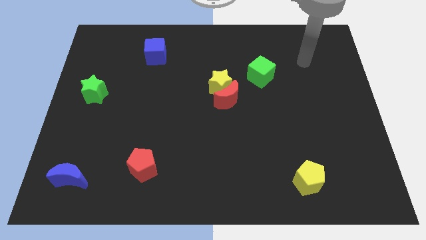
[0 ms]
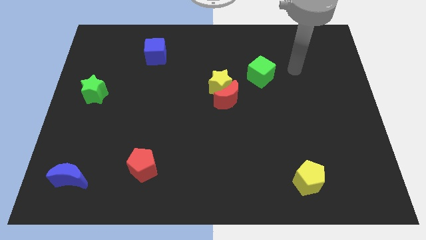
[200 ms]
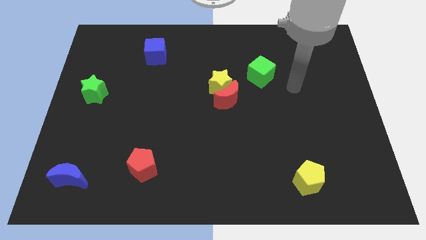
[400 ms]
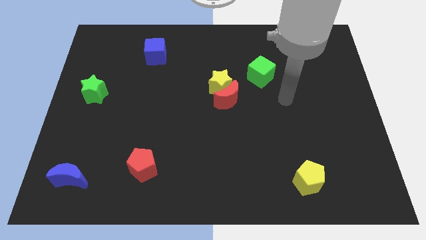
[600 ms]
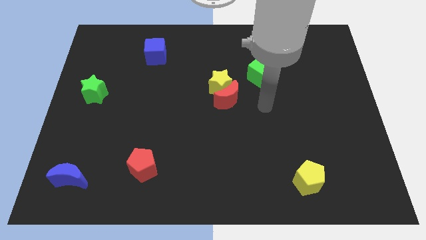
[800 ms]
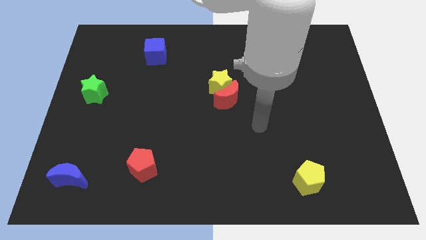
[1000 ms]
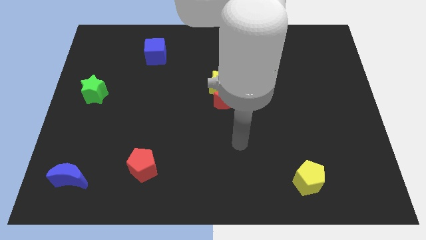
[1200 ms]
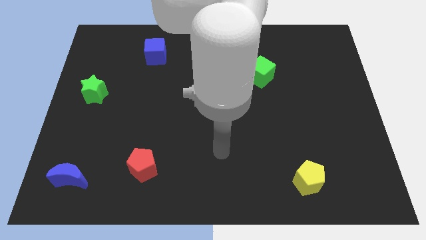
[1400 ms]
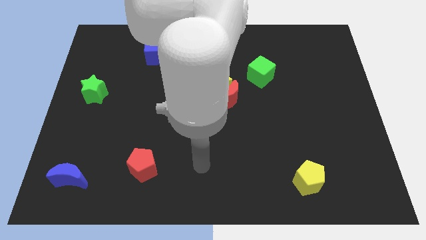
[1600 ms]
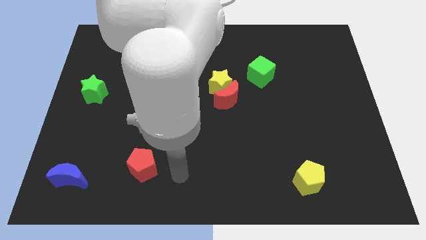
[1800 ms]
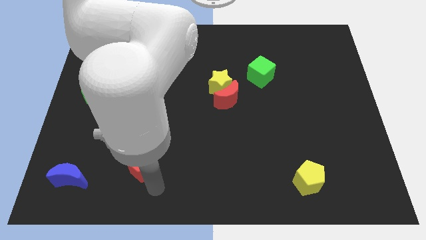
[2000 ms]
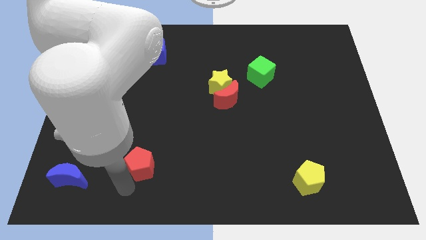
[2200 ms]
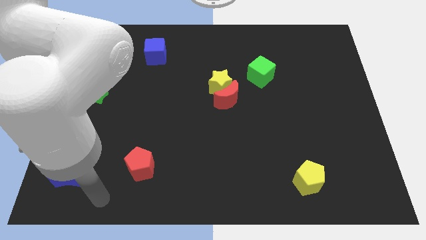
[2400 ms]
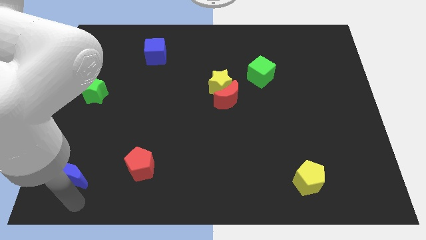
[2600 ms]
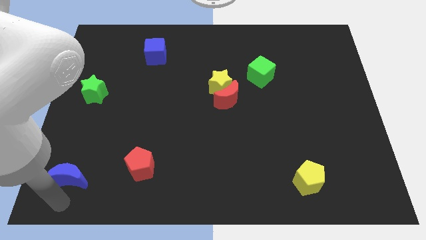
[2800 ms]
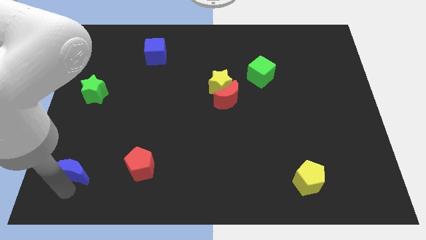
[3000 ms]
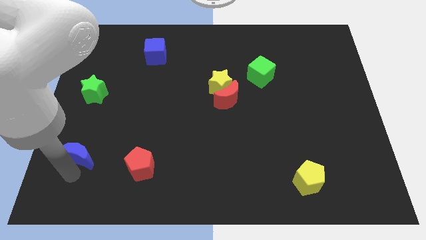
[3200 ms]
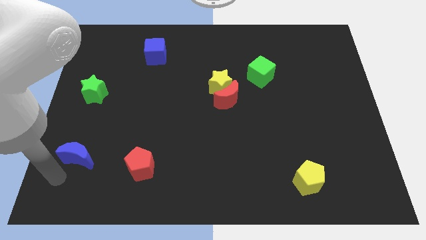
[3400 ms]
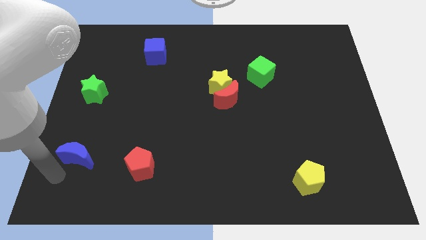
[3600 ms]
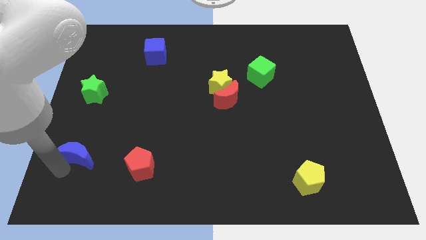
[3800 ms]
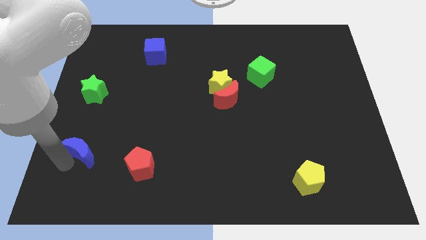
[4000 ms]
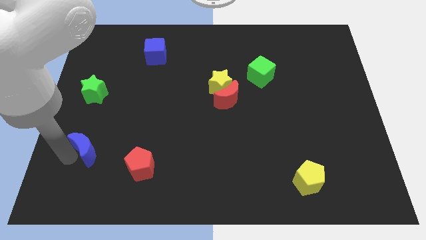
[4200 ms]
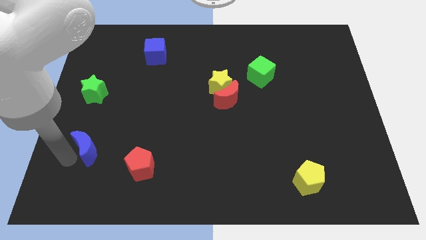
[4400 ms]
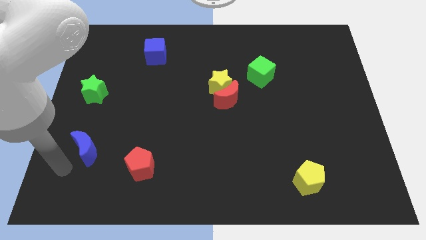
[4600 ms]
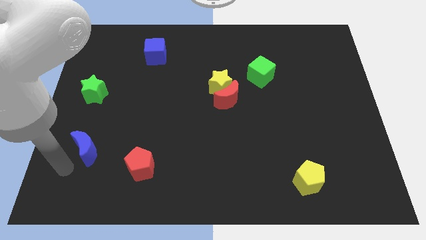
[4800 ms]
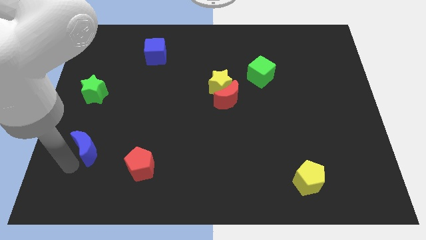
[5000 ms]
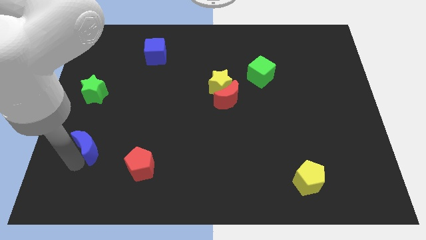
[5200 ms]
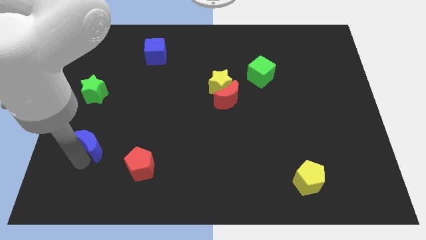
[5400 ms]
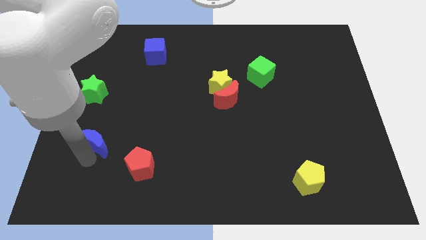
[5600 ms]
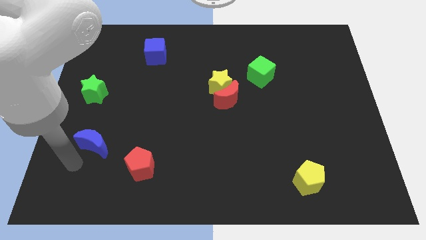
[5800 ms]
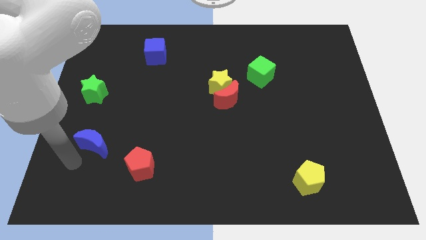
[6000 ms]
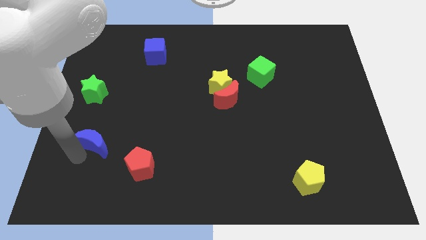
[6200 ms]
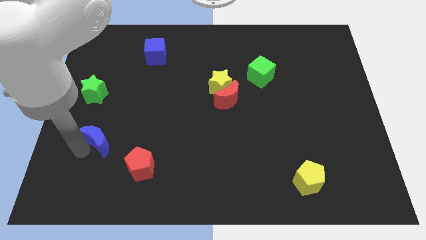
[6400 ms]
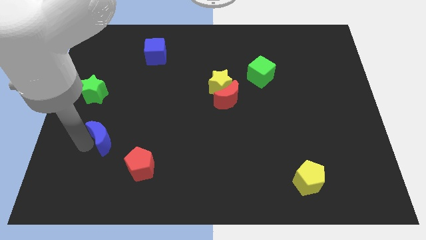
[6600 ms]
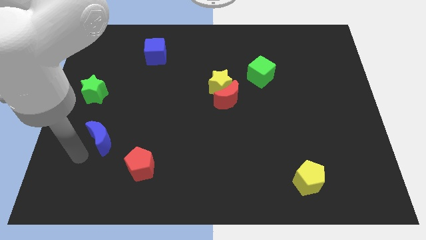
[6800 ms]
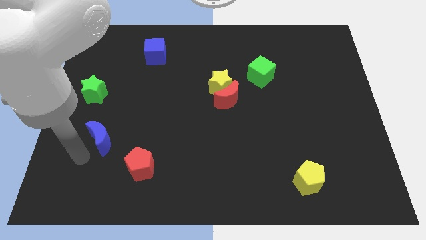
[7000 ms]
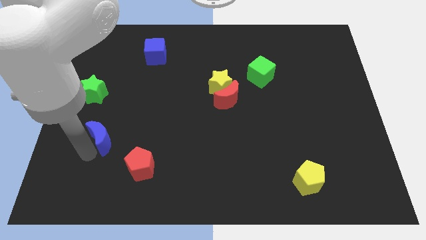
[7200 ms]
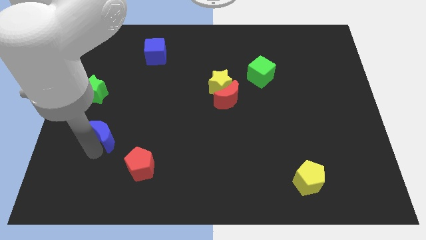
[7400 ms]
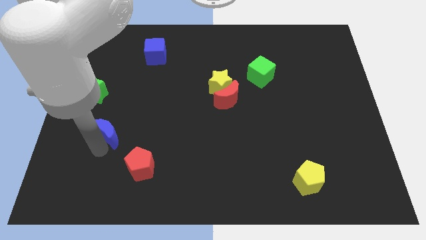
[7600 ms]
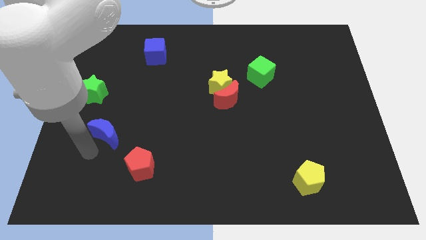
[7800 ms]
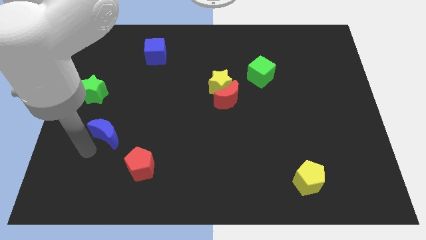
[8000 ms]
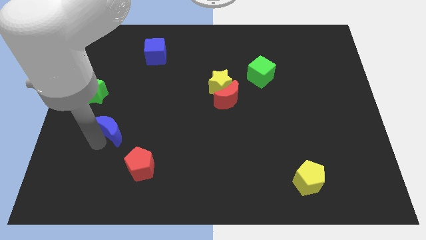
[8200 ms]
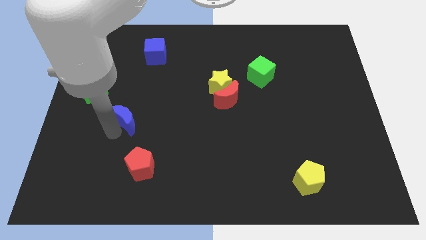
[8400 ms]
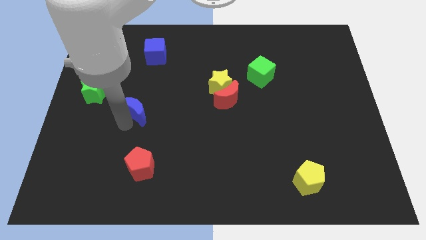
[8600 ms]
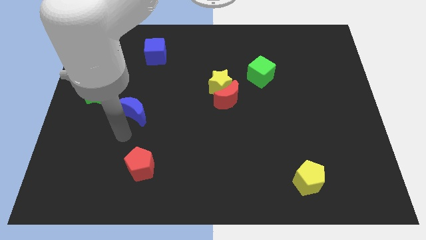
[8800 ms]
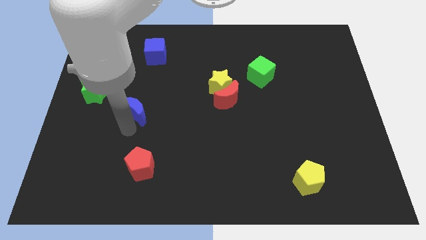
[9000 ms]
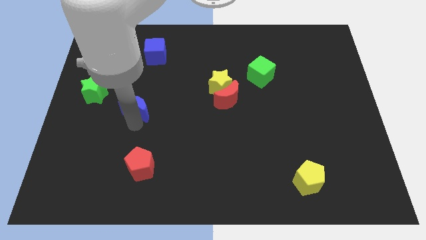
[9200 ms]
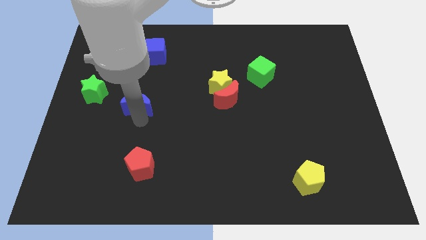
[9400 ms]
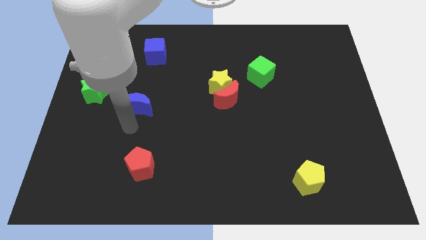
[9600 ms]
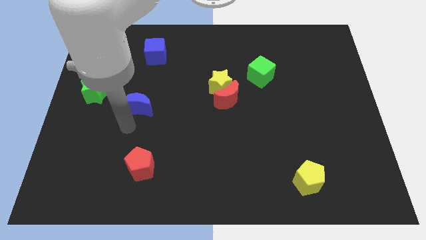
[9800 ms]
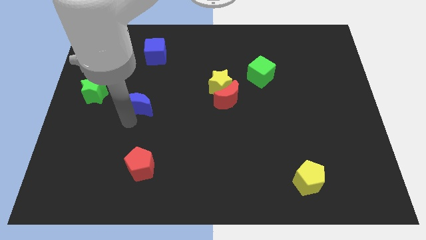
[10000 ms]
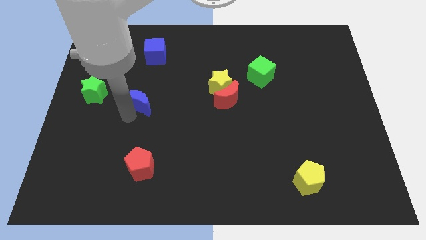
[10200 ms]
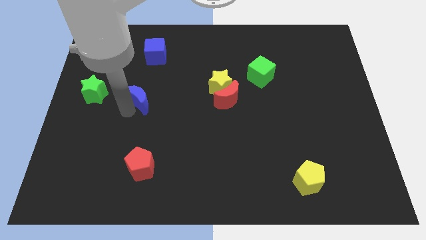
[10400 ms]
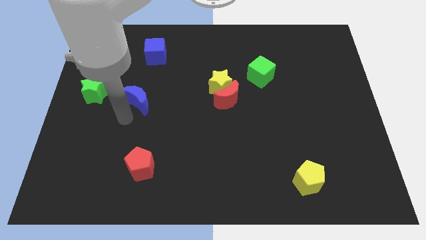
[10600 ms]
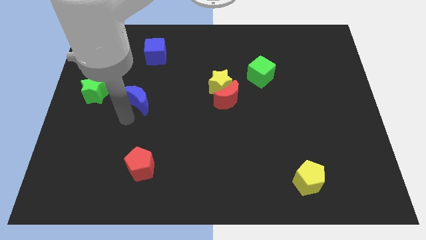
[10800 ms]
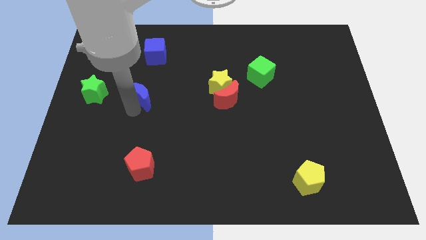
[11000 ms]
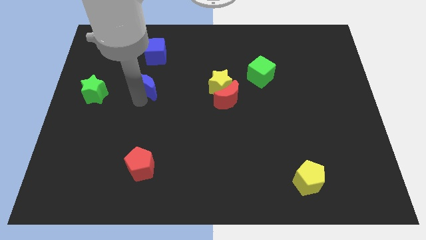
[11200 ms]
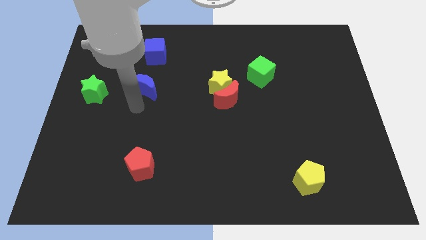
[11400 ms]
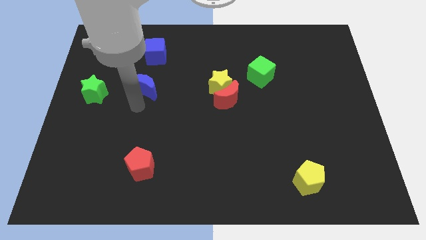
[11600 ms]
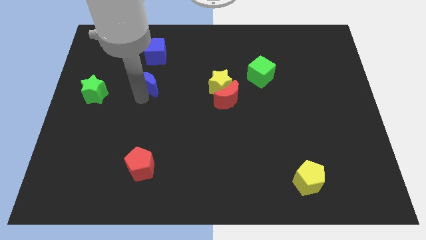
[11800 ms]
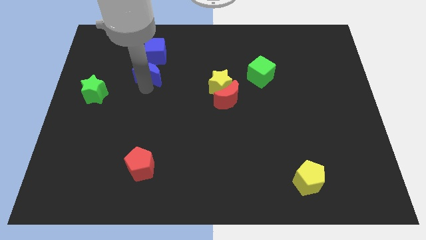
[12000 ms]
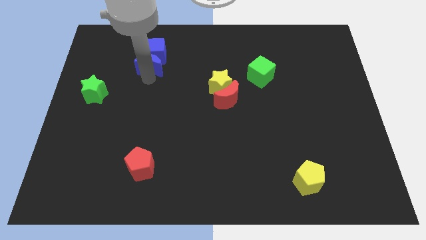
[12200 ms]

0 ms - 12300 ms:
put the blue moon next to the blue cube
